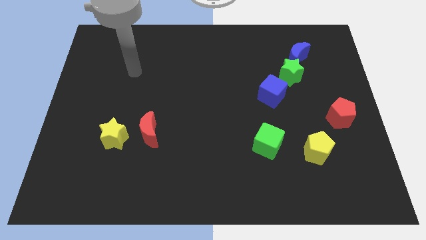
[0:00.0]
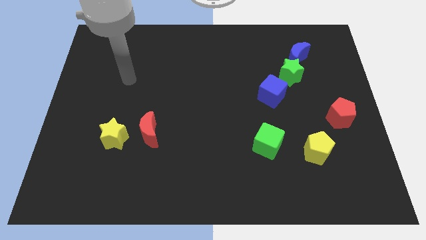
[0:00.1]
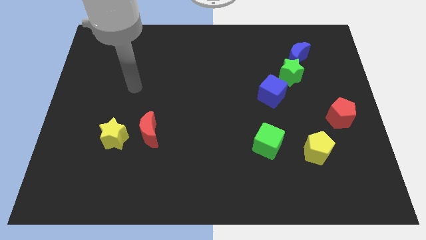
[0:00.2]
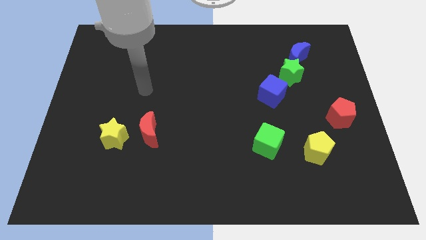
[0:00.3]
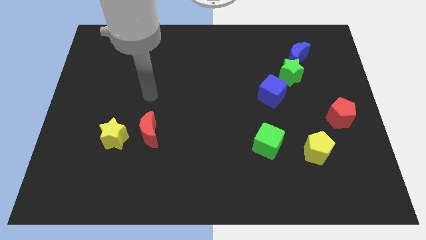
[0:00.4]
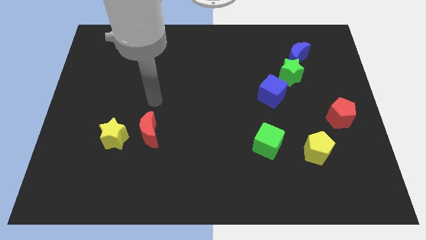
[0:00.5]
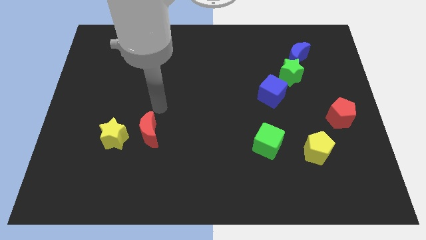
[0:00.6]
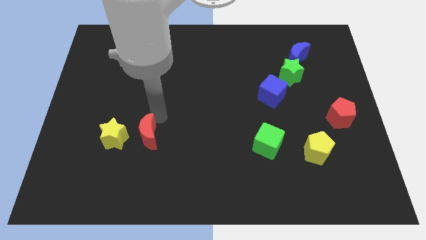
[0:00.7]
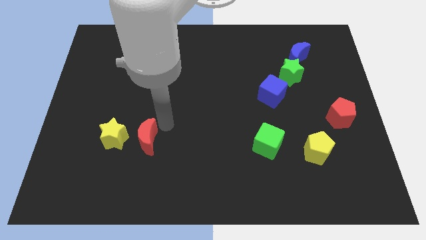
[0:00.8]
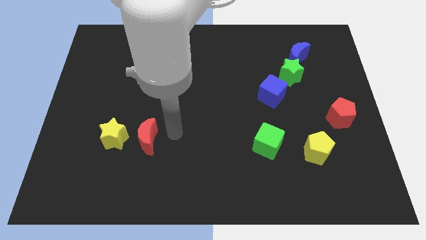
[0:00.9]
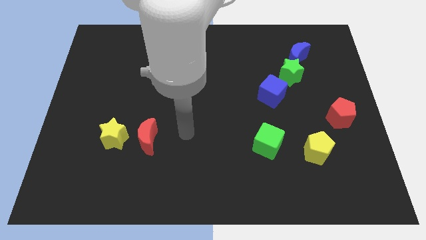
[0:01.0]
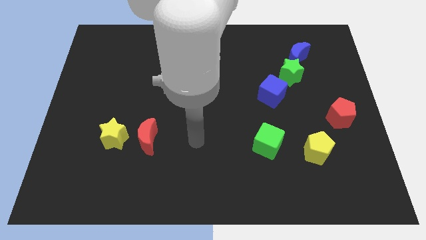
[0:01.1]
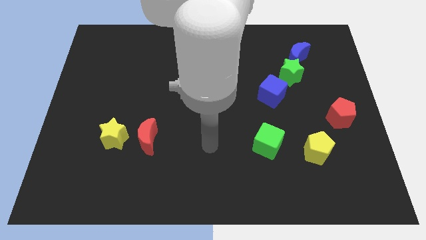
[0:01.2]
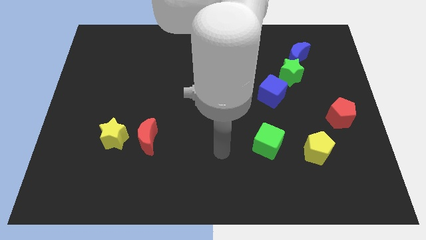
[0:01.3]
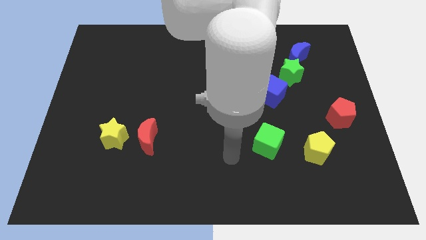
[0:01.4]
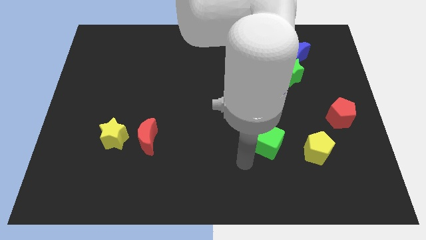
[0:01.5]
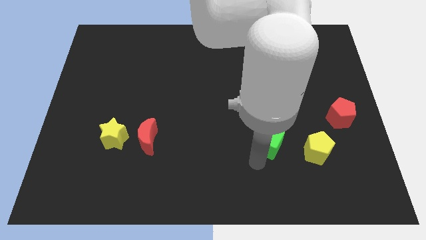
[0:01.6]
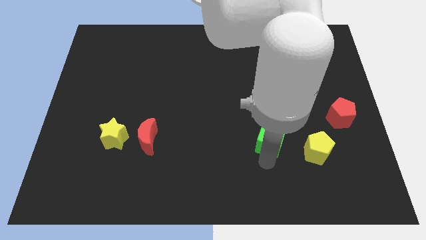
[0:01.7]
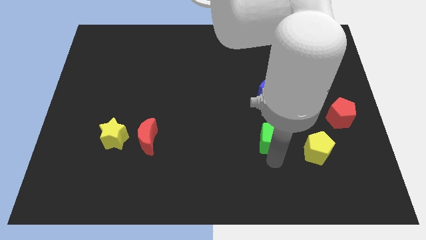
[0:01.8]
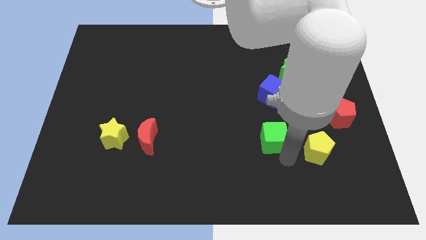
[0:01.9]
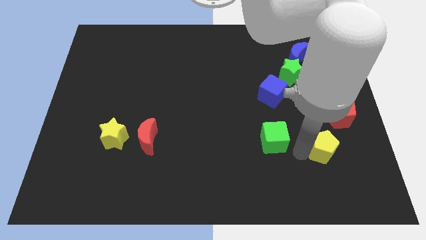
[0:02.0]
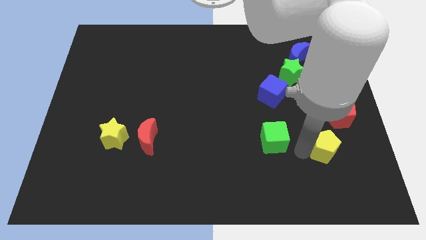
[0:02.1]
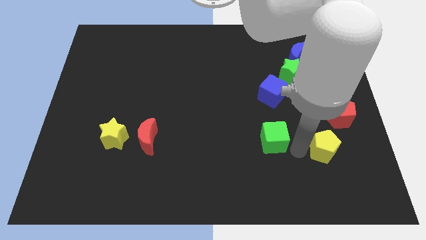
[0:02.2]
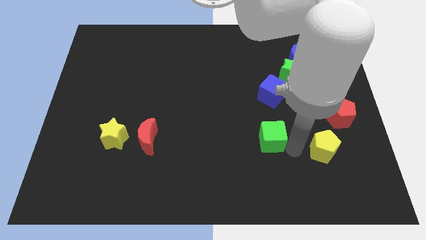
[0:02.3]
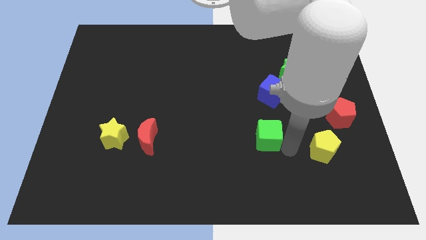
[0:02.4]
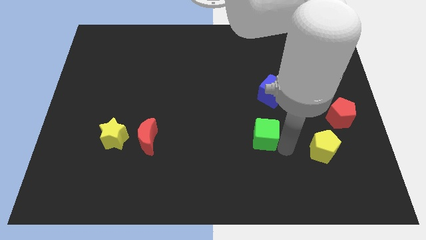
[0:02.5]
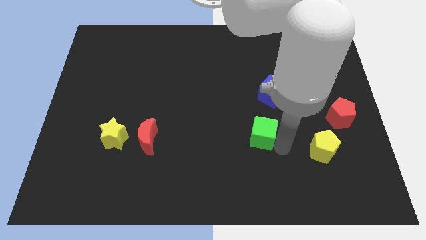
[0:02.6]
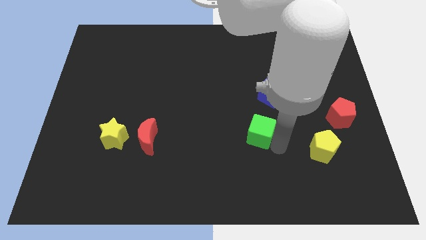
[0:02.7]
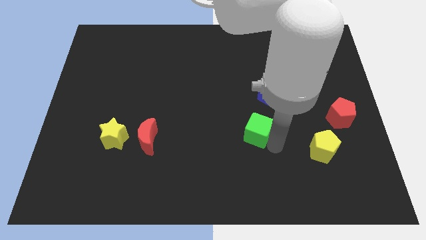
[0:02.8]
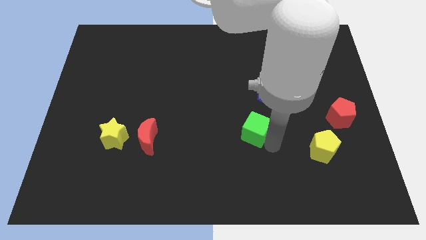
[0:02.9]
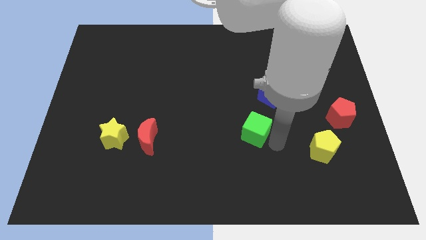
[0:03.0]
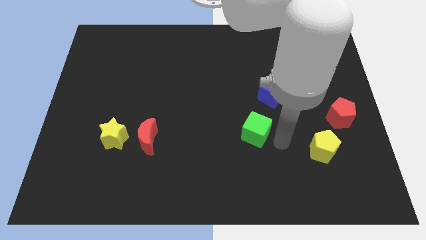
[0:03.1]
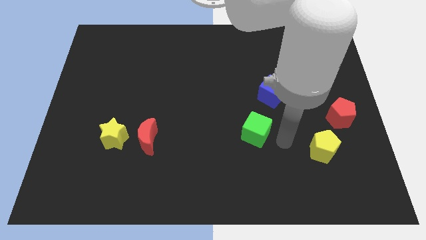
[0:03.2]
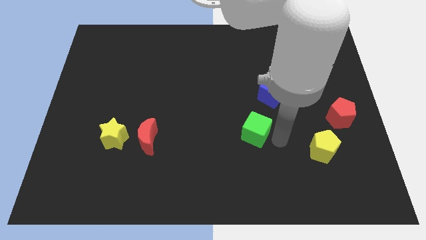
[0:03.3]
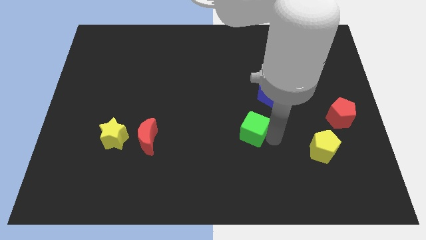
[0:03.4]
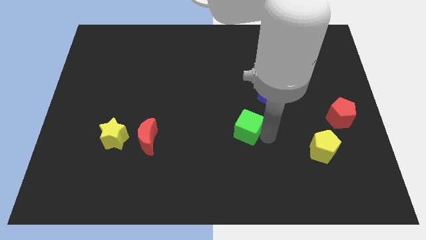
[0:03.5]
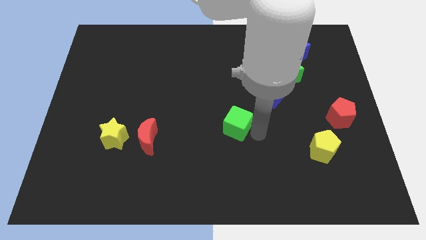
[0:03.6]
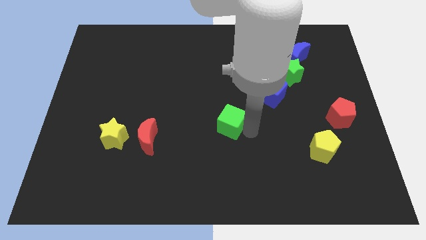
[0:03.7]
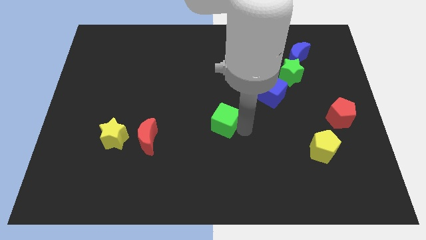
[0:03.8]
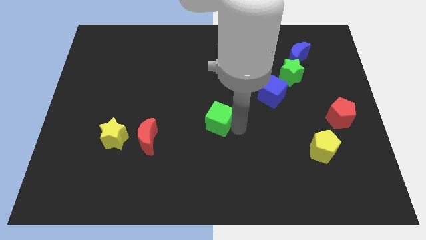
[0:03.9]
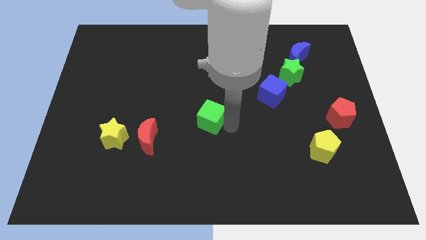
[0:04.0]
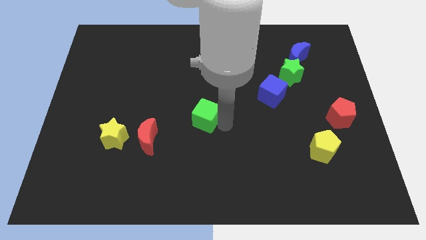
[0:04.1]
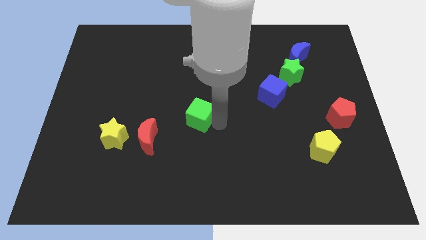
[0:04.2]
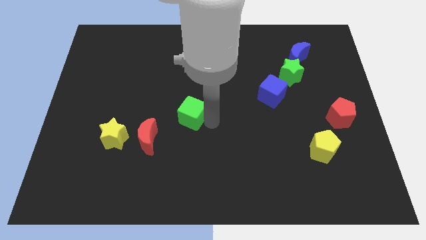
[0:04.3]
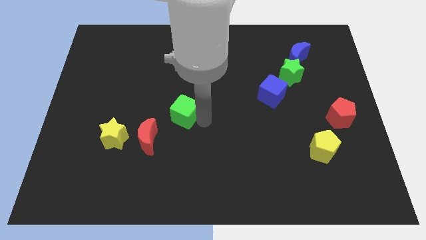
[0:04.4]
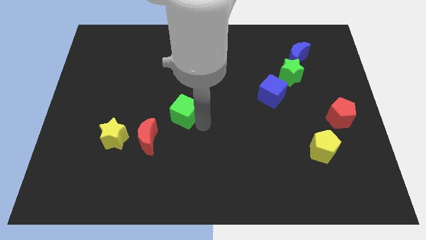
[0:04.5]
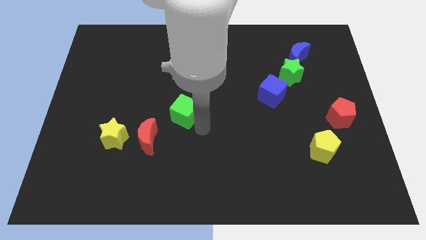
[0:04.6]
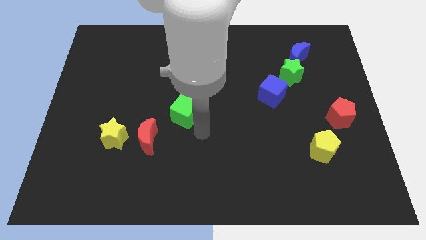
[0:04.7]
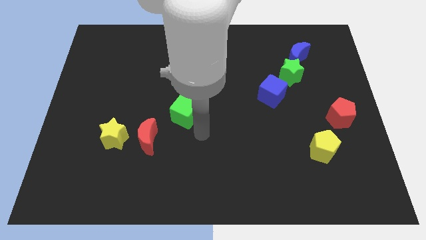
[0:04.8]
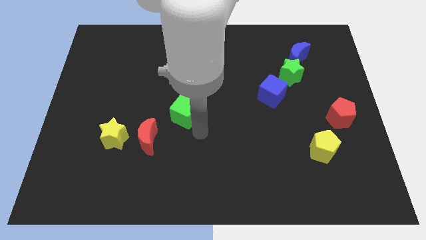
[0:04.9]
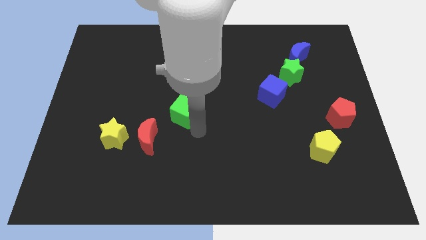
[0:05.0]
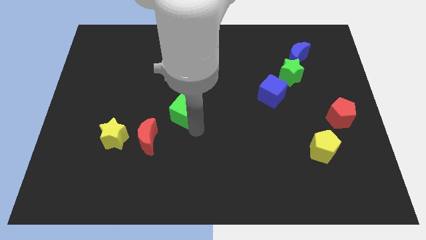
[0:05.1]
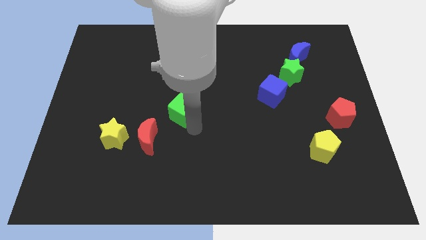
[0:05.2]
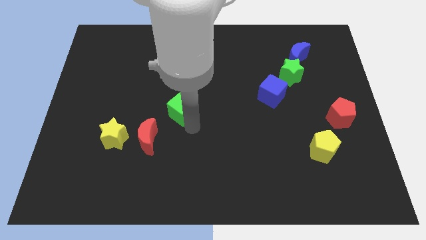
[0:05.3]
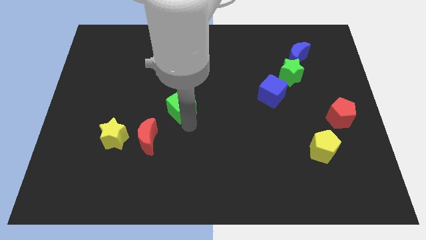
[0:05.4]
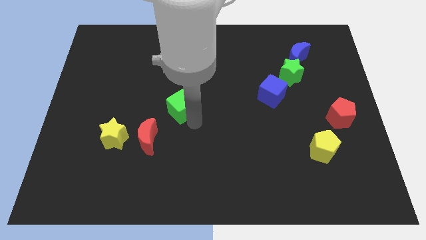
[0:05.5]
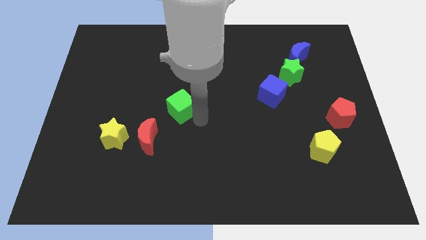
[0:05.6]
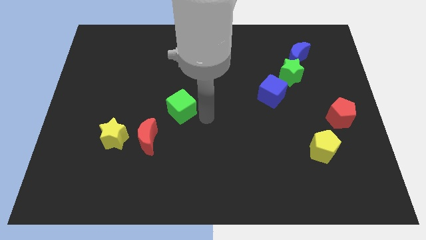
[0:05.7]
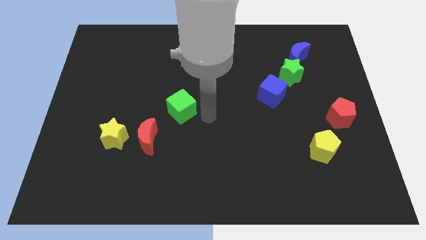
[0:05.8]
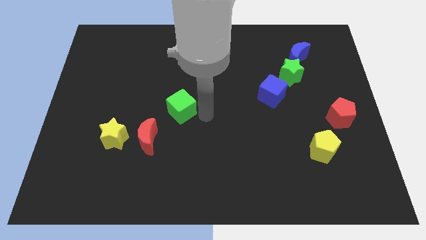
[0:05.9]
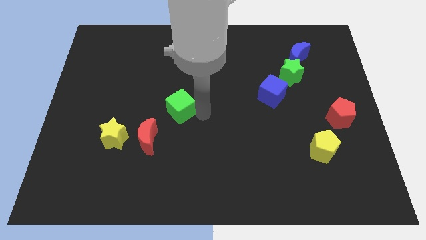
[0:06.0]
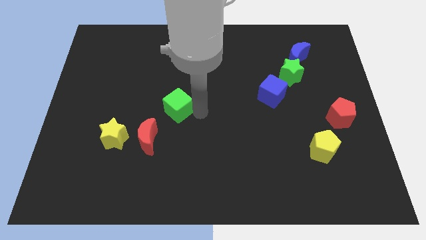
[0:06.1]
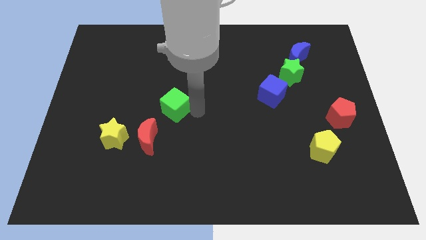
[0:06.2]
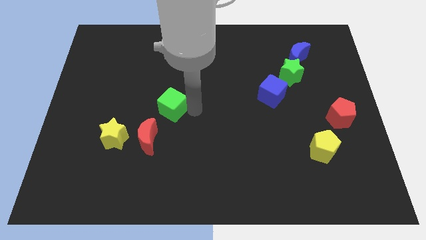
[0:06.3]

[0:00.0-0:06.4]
move the green cube to the top of the red moon

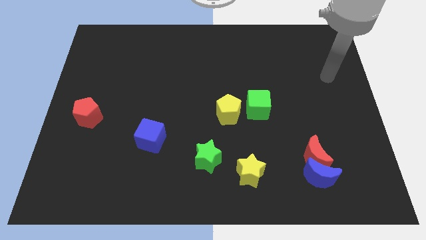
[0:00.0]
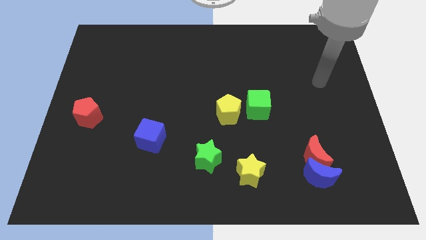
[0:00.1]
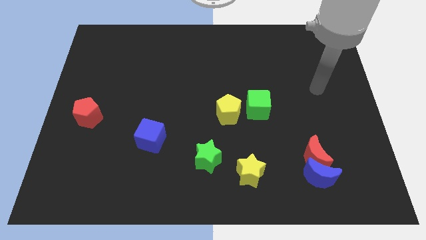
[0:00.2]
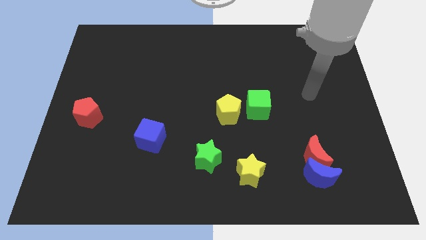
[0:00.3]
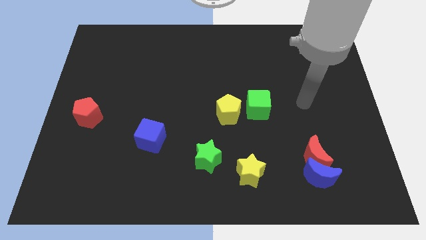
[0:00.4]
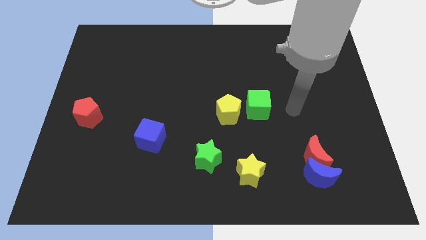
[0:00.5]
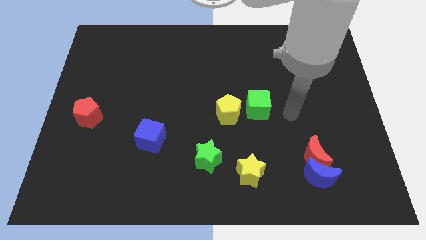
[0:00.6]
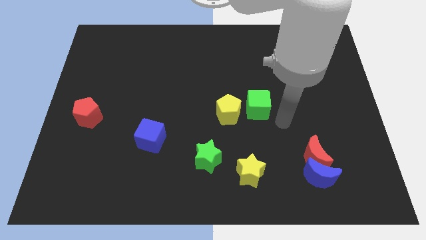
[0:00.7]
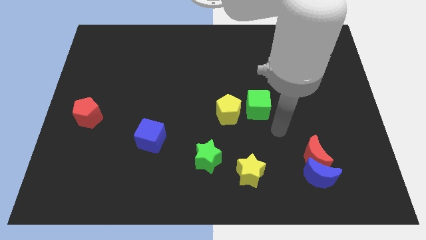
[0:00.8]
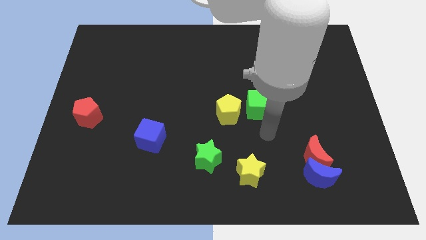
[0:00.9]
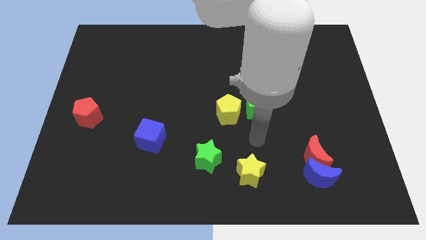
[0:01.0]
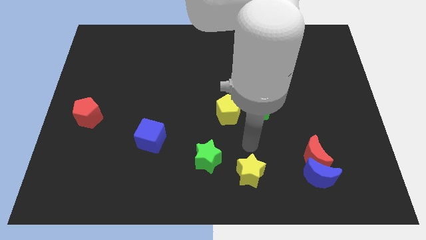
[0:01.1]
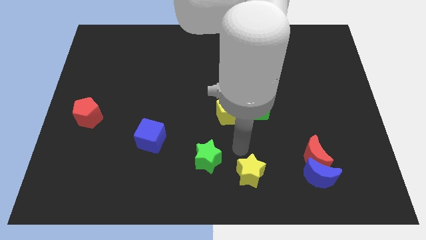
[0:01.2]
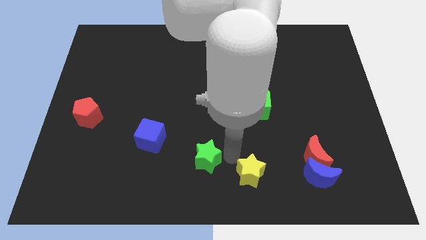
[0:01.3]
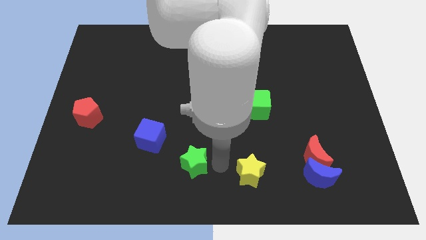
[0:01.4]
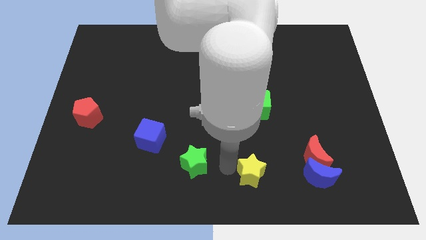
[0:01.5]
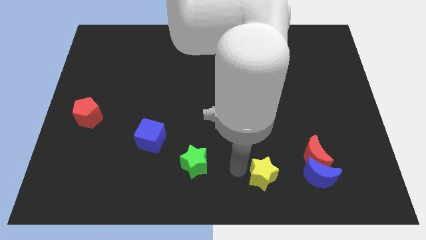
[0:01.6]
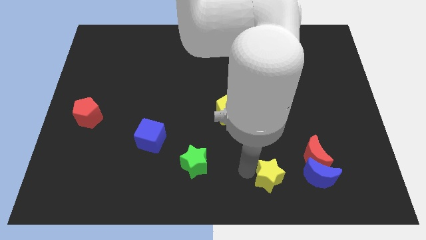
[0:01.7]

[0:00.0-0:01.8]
slide the yellow star to the bottom left side of the red moon
